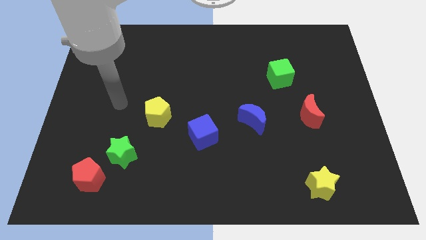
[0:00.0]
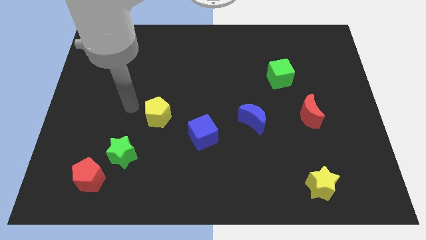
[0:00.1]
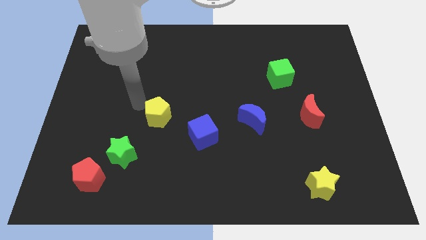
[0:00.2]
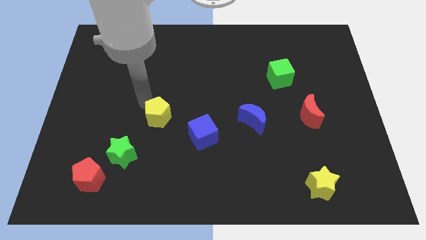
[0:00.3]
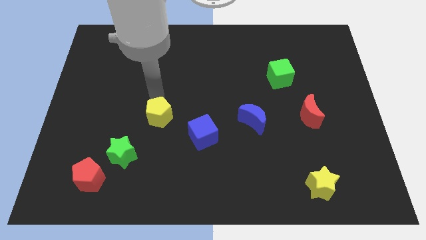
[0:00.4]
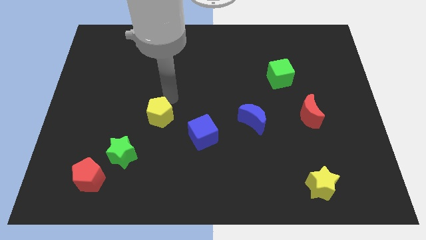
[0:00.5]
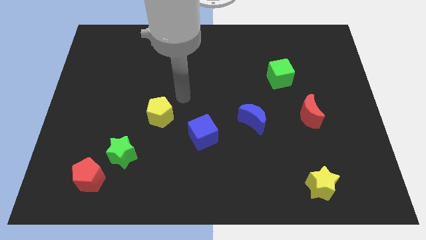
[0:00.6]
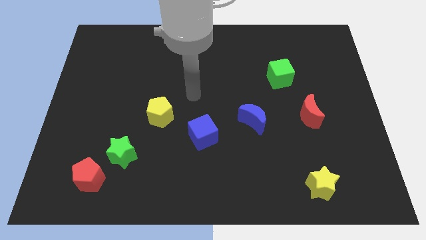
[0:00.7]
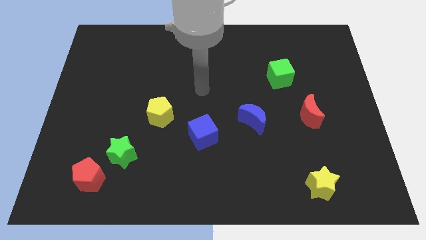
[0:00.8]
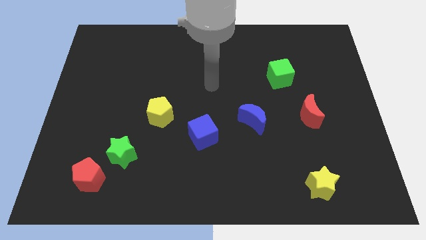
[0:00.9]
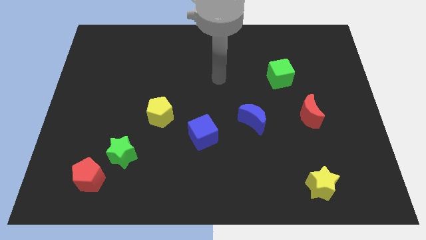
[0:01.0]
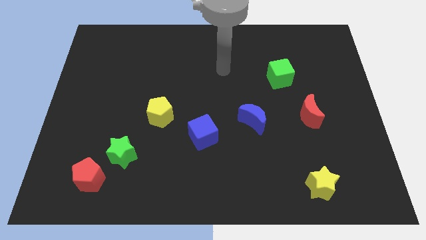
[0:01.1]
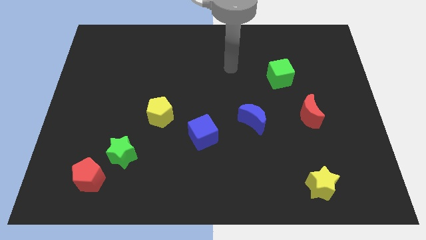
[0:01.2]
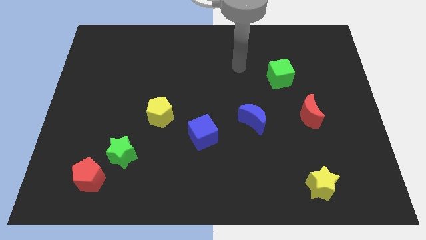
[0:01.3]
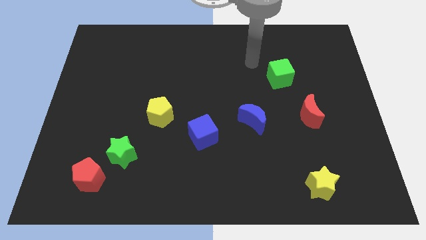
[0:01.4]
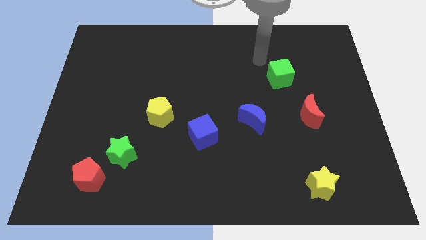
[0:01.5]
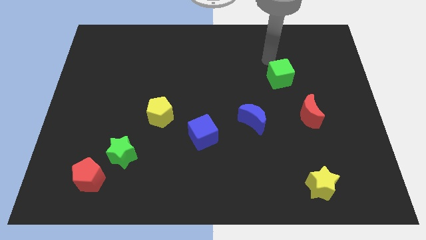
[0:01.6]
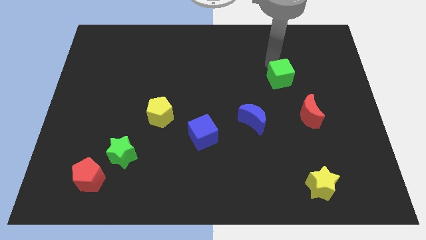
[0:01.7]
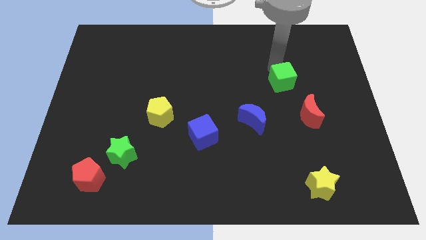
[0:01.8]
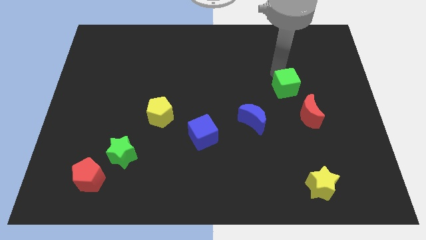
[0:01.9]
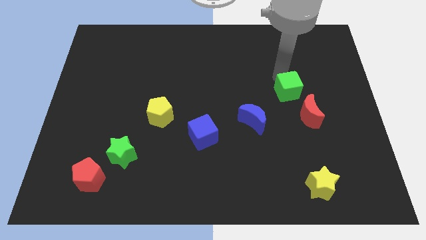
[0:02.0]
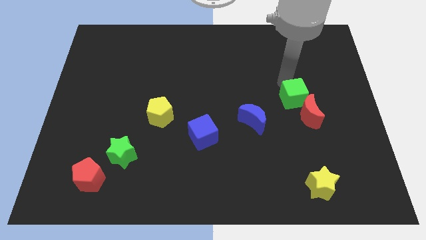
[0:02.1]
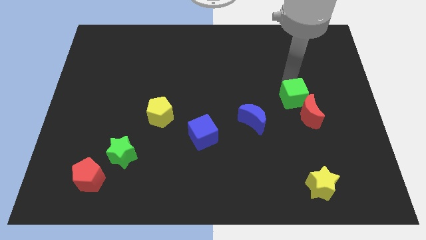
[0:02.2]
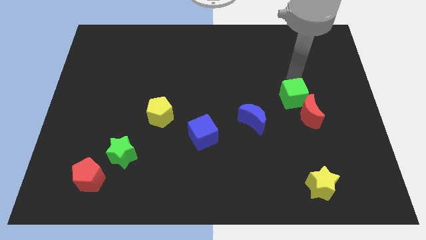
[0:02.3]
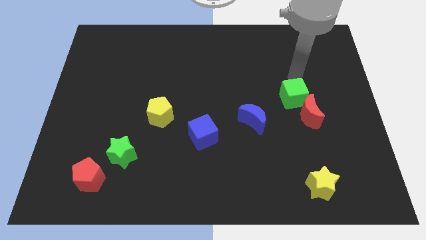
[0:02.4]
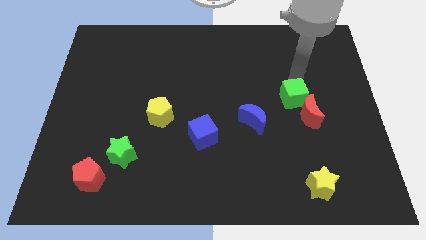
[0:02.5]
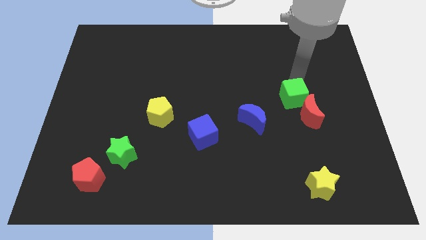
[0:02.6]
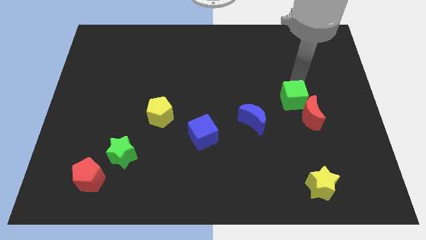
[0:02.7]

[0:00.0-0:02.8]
slightly push the green cube down

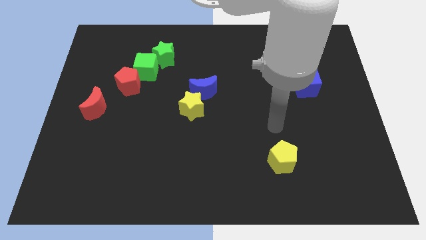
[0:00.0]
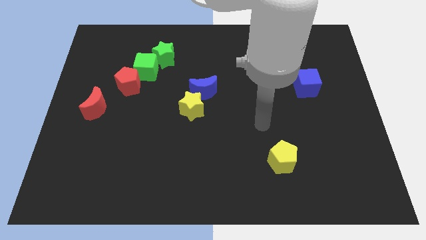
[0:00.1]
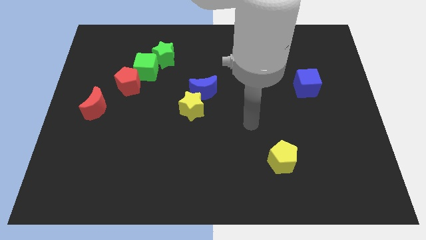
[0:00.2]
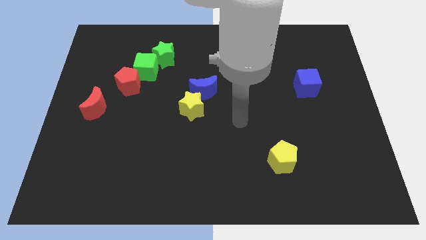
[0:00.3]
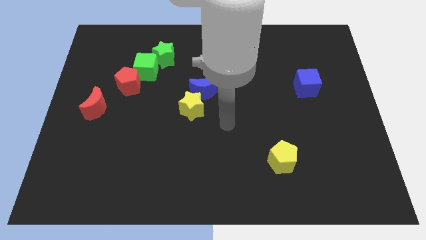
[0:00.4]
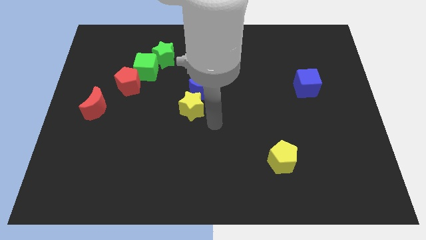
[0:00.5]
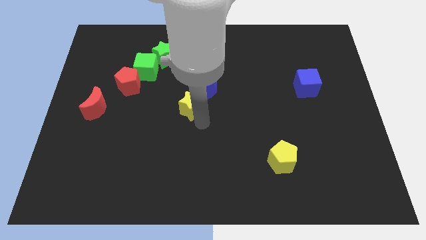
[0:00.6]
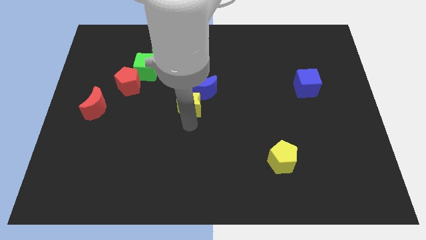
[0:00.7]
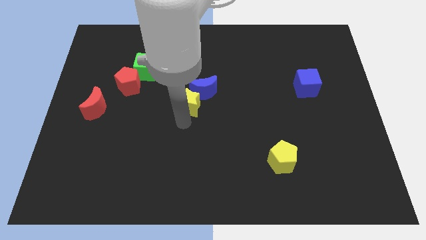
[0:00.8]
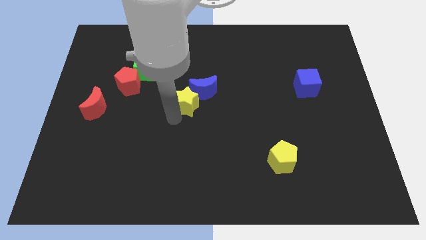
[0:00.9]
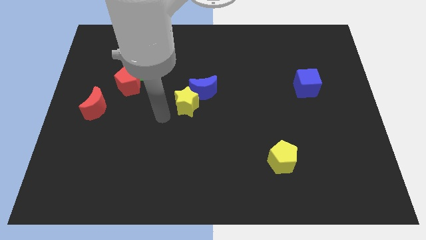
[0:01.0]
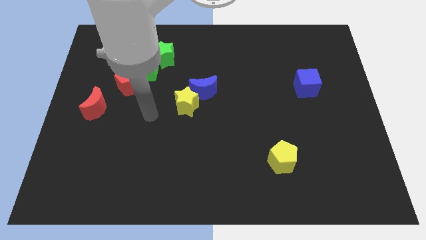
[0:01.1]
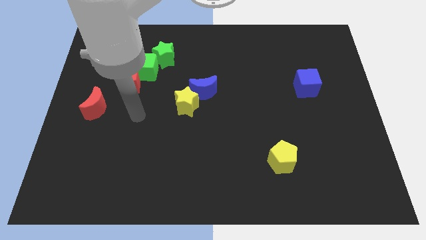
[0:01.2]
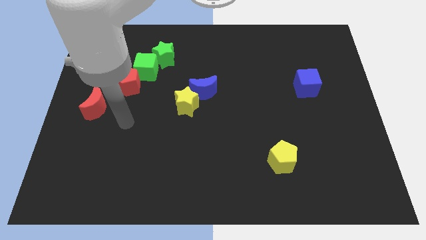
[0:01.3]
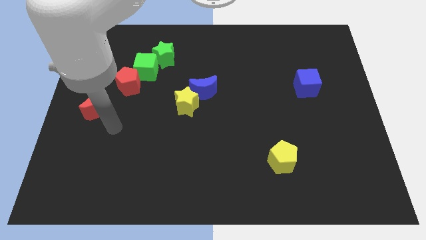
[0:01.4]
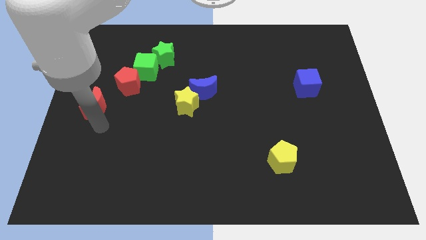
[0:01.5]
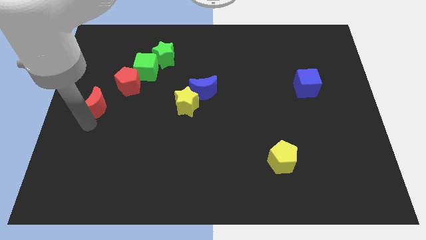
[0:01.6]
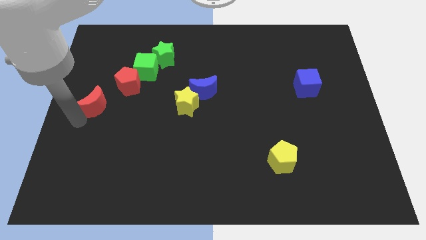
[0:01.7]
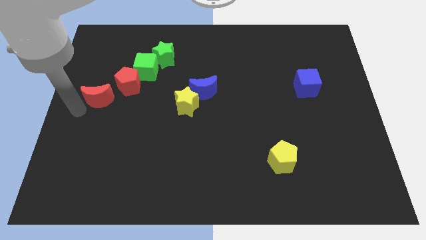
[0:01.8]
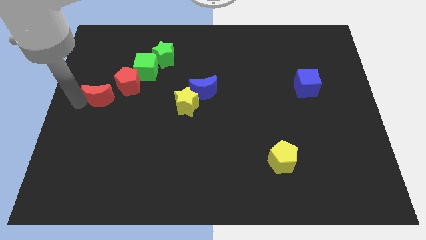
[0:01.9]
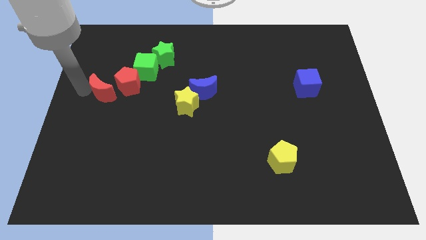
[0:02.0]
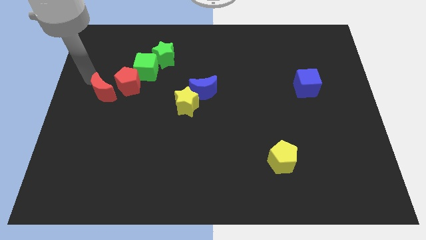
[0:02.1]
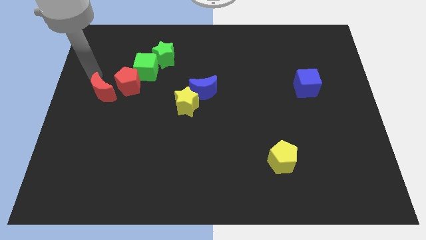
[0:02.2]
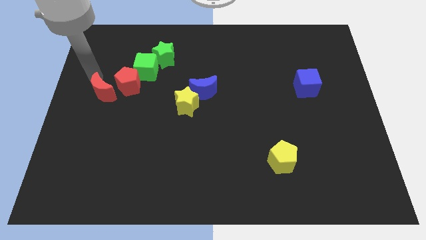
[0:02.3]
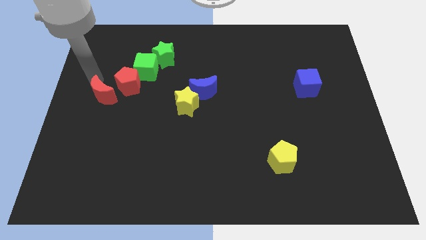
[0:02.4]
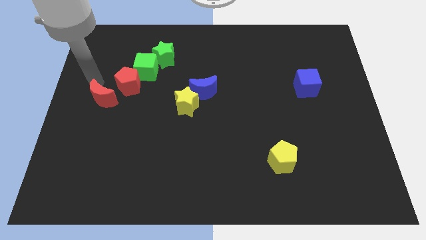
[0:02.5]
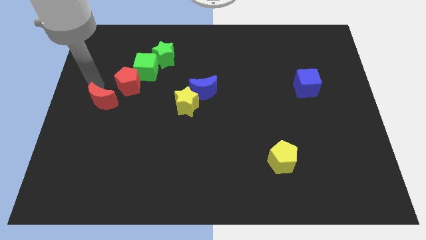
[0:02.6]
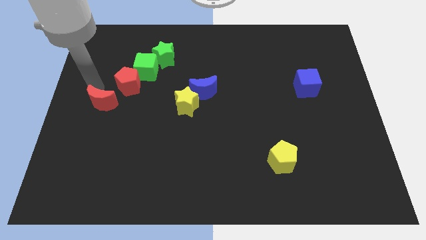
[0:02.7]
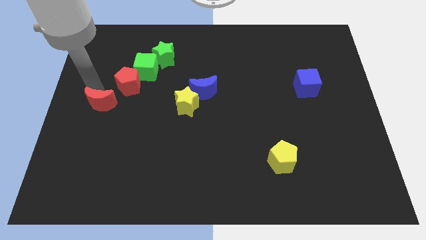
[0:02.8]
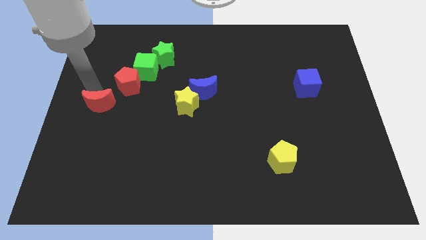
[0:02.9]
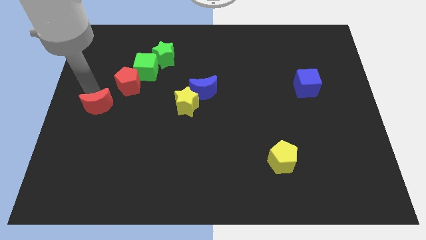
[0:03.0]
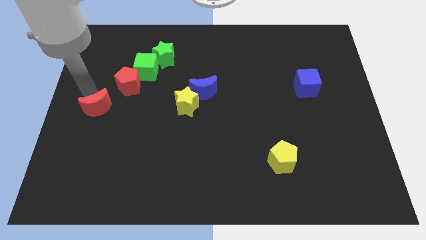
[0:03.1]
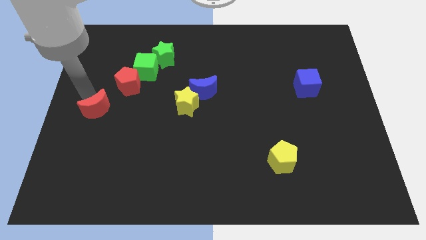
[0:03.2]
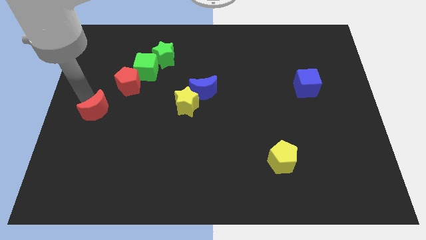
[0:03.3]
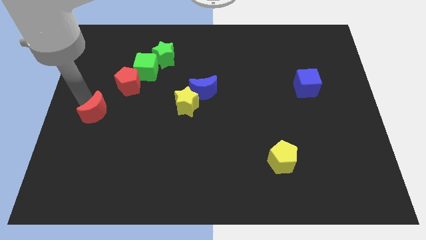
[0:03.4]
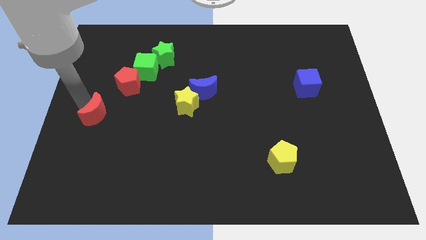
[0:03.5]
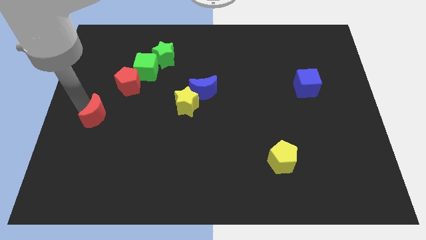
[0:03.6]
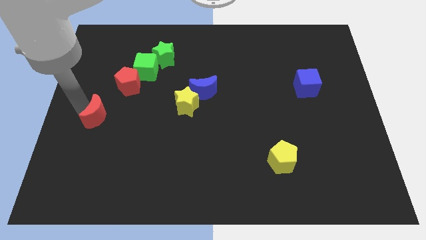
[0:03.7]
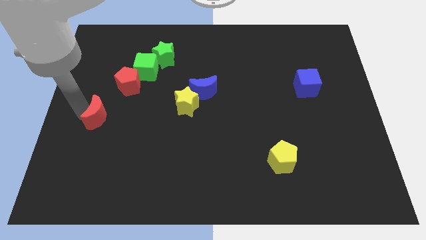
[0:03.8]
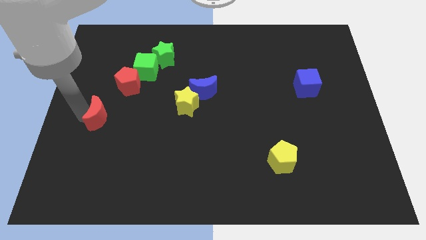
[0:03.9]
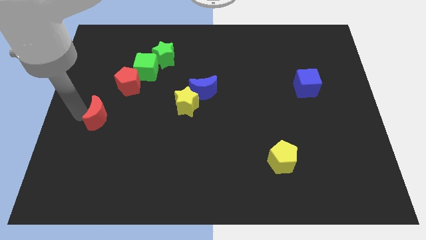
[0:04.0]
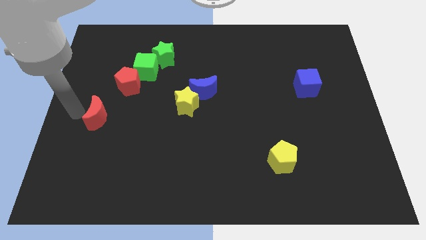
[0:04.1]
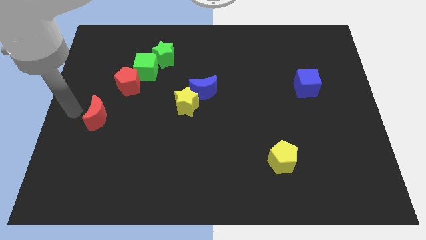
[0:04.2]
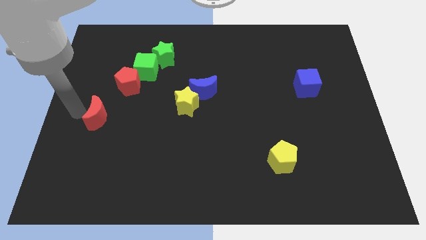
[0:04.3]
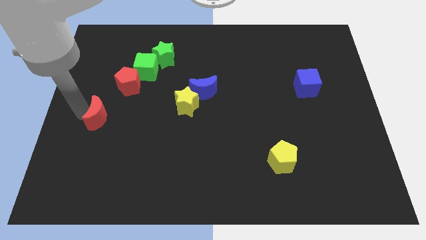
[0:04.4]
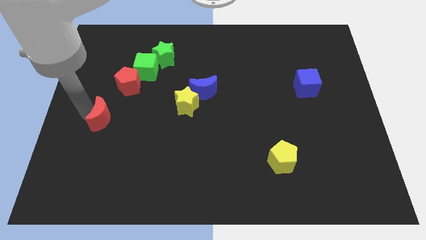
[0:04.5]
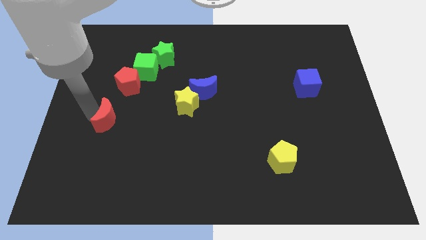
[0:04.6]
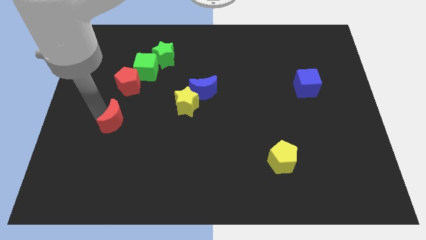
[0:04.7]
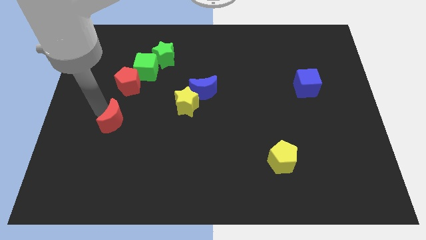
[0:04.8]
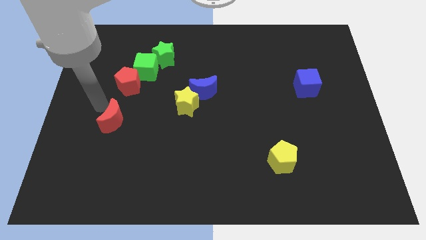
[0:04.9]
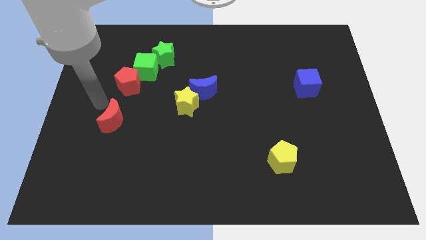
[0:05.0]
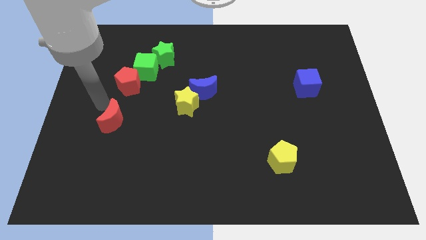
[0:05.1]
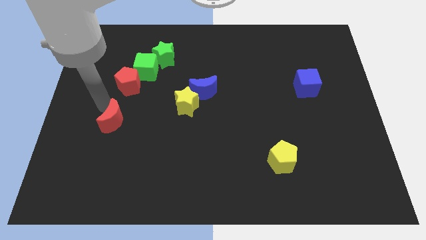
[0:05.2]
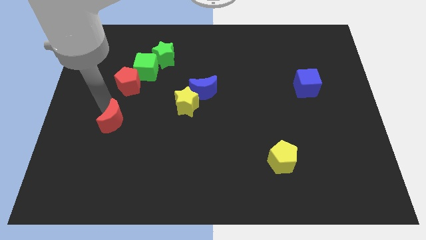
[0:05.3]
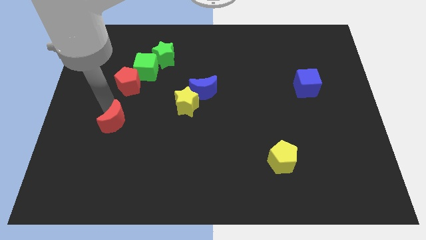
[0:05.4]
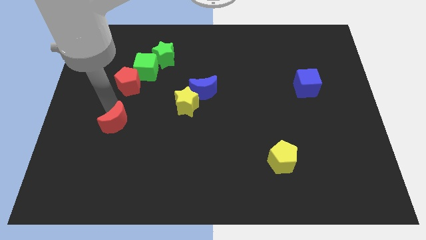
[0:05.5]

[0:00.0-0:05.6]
move the red moon a bit down and then to the right
